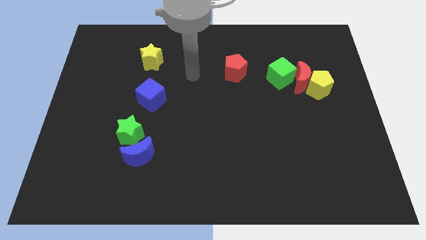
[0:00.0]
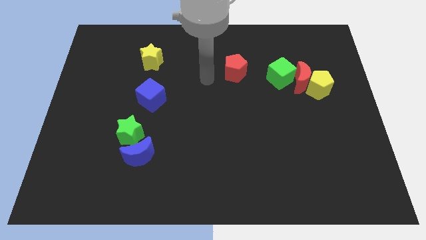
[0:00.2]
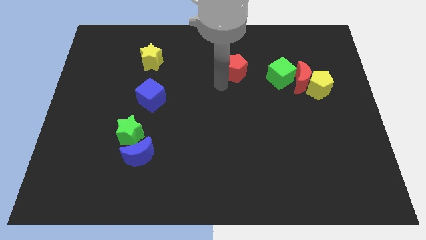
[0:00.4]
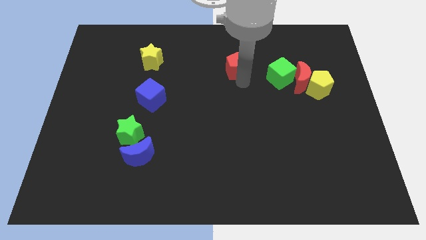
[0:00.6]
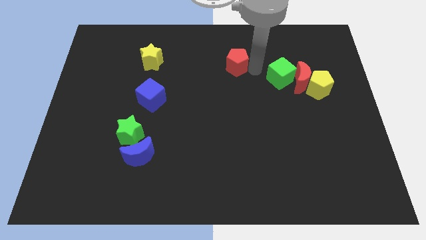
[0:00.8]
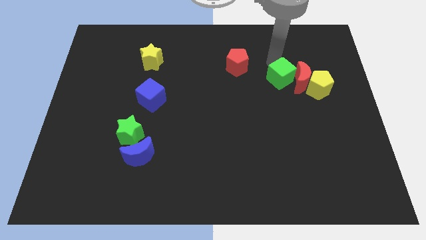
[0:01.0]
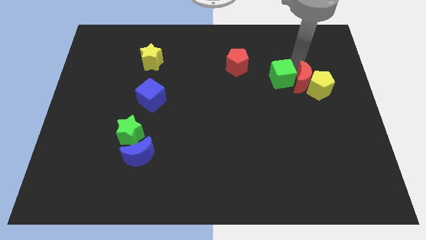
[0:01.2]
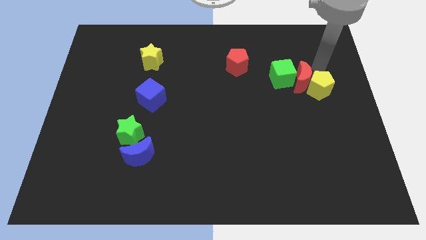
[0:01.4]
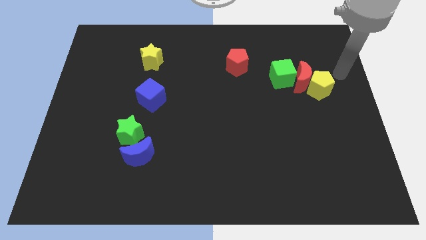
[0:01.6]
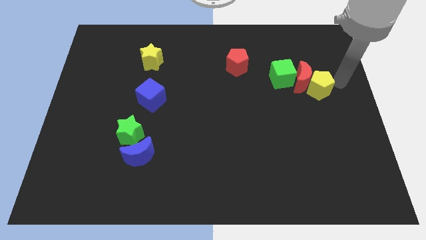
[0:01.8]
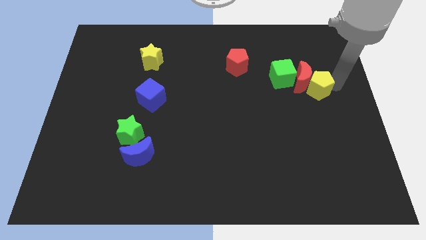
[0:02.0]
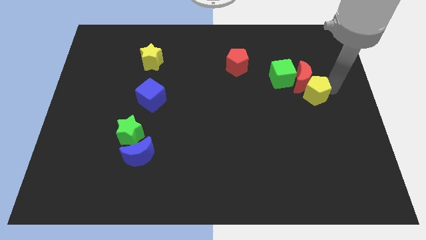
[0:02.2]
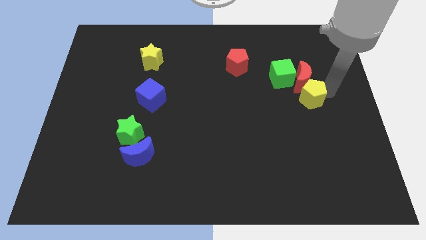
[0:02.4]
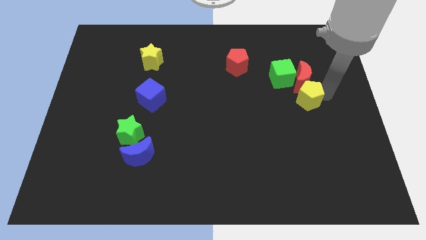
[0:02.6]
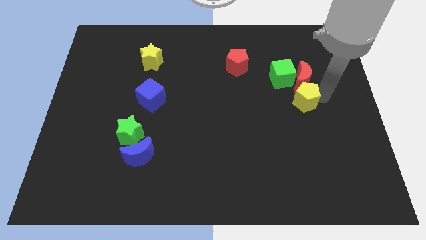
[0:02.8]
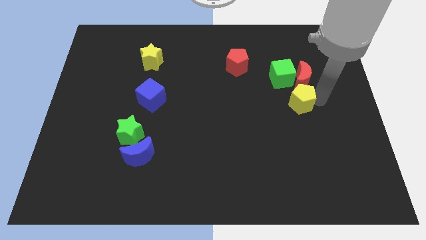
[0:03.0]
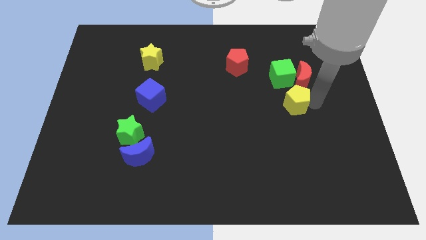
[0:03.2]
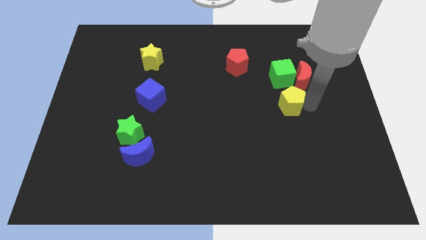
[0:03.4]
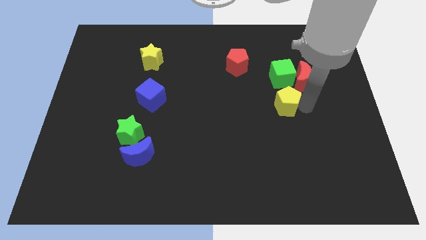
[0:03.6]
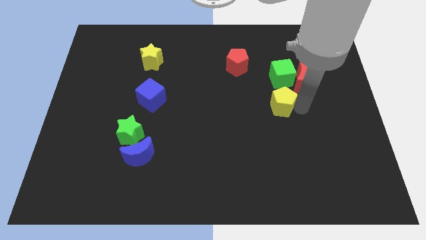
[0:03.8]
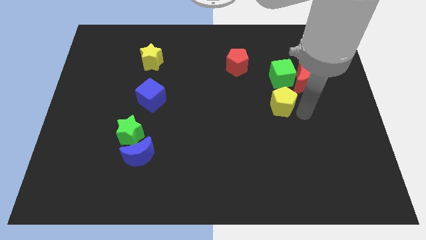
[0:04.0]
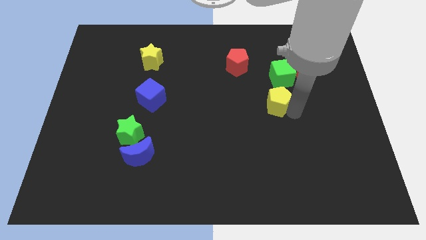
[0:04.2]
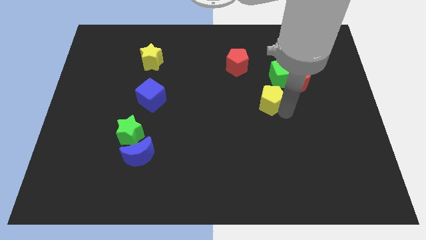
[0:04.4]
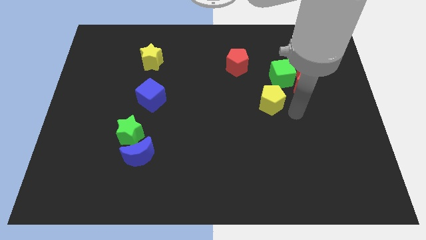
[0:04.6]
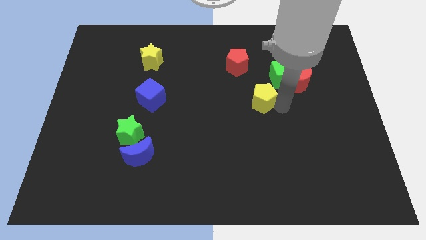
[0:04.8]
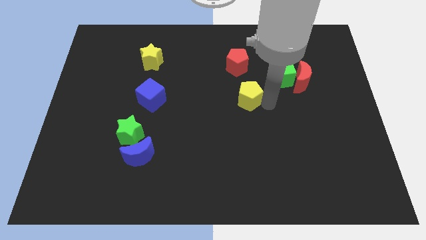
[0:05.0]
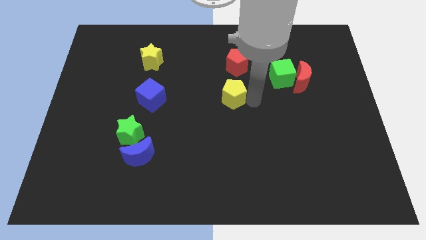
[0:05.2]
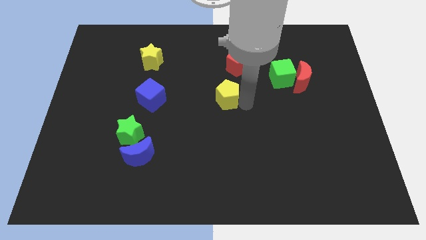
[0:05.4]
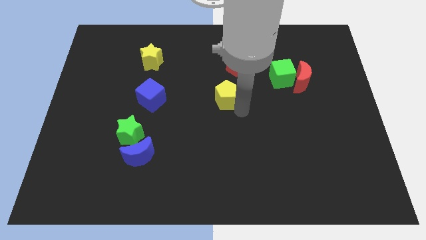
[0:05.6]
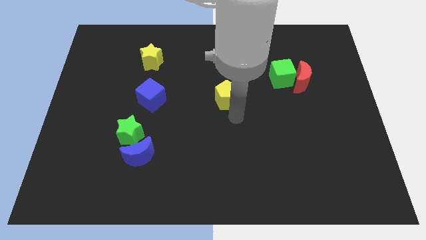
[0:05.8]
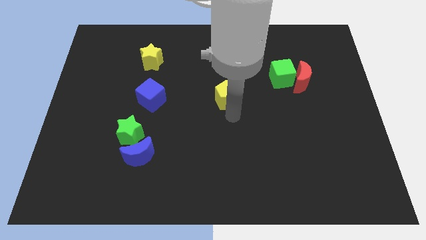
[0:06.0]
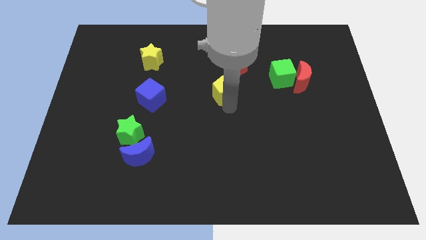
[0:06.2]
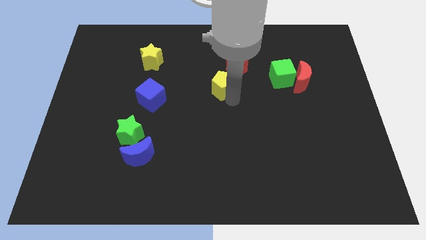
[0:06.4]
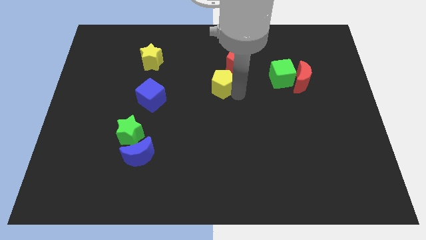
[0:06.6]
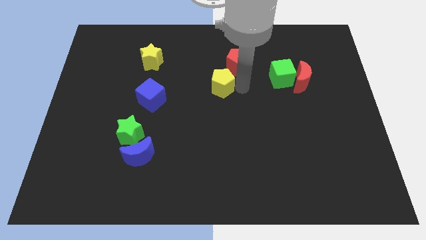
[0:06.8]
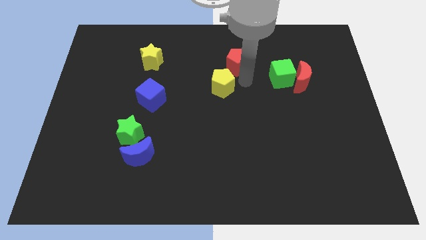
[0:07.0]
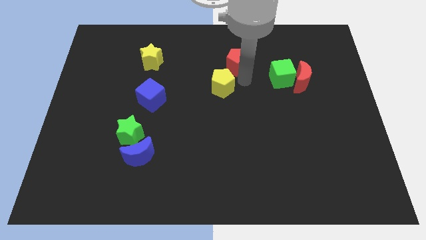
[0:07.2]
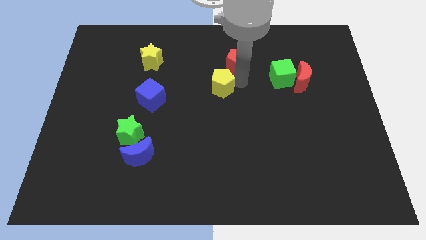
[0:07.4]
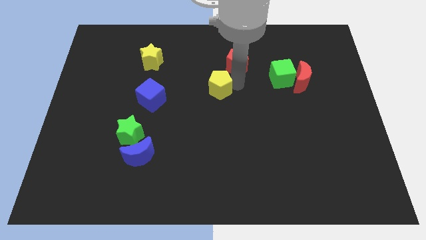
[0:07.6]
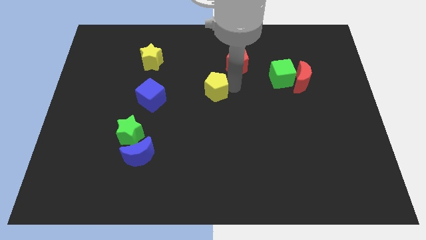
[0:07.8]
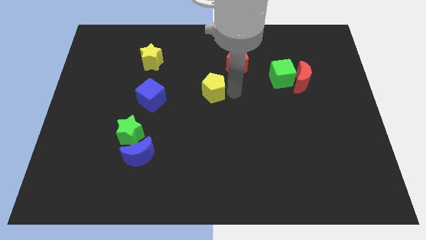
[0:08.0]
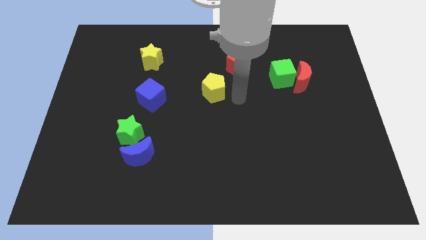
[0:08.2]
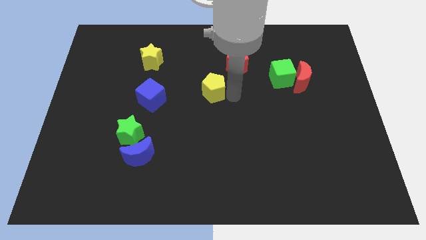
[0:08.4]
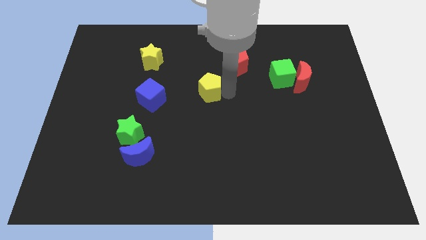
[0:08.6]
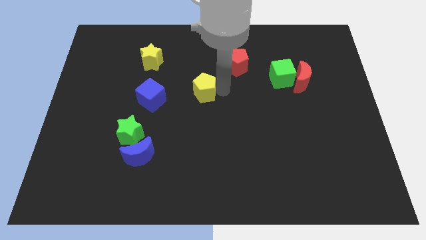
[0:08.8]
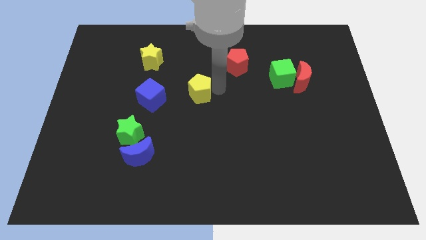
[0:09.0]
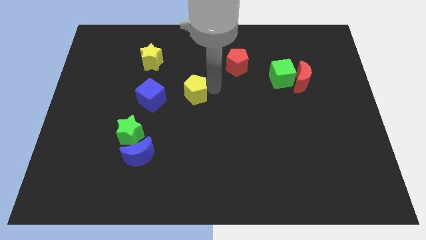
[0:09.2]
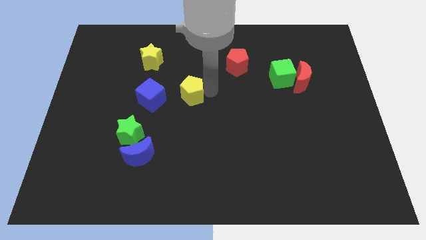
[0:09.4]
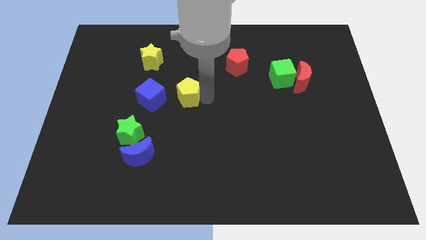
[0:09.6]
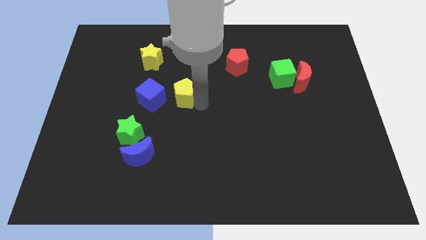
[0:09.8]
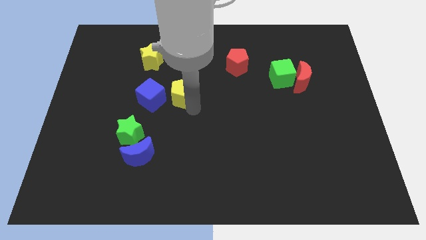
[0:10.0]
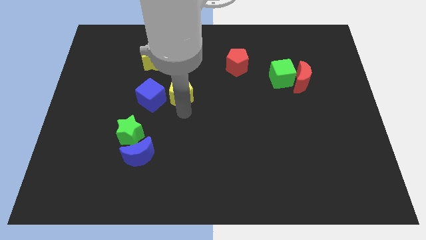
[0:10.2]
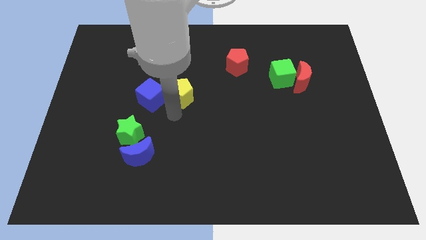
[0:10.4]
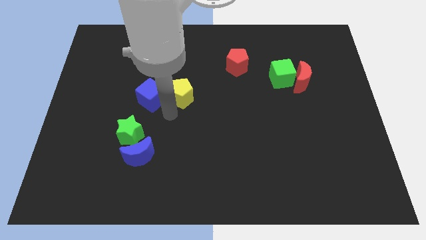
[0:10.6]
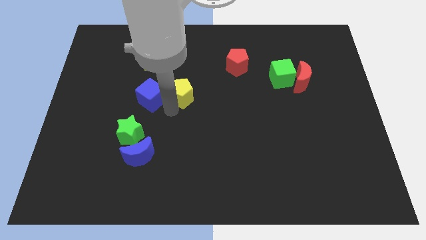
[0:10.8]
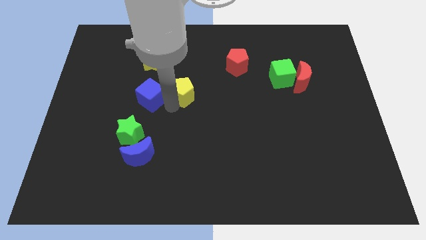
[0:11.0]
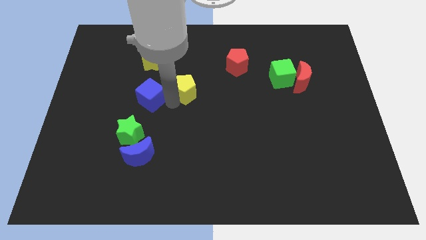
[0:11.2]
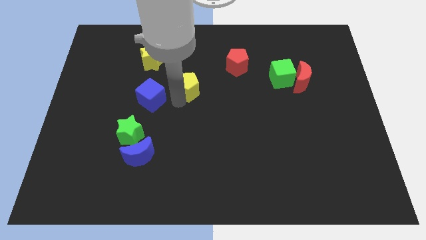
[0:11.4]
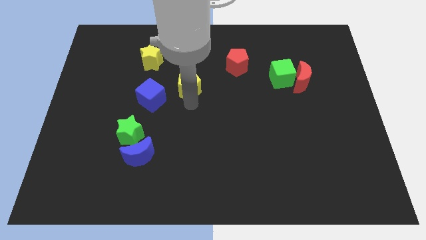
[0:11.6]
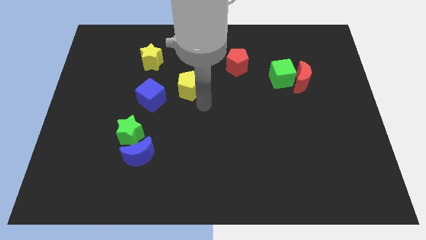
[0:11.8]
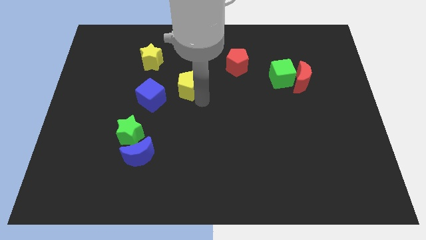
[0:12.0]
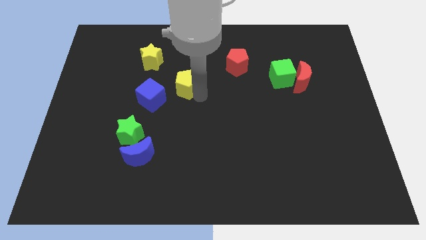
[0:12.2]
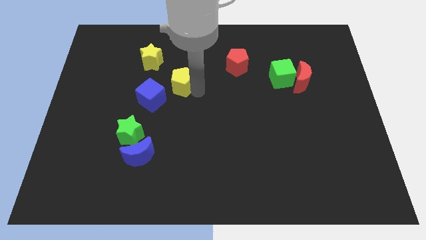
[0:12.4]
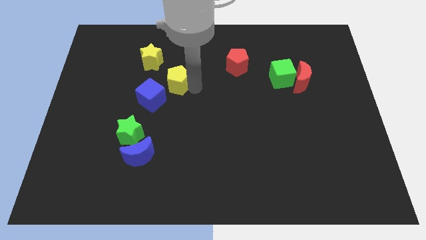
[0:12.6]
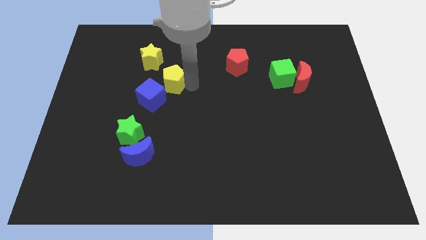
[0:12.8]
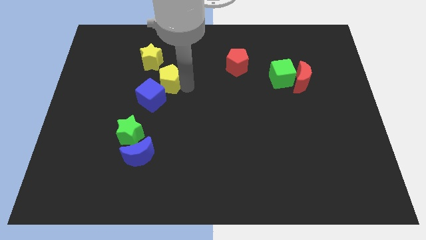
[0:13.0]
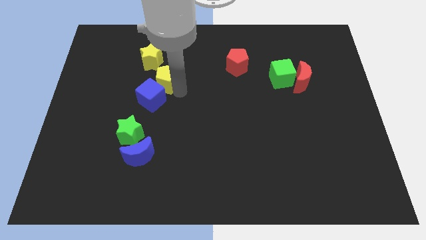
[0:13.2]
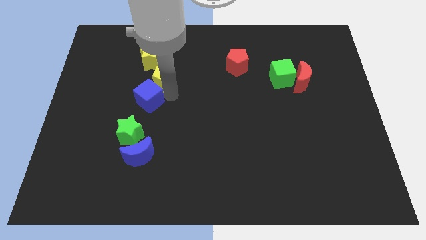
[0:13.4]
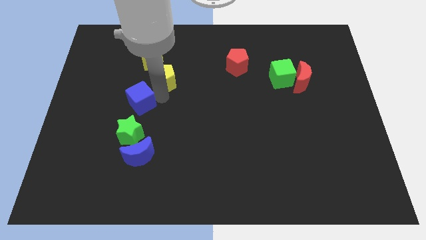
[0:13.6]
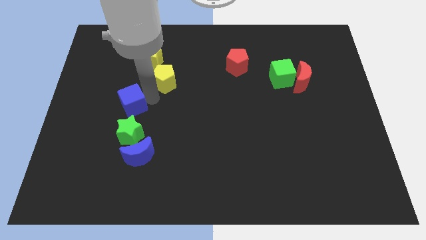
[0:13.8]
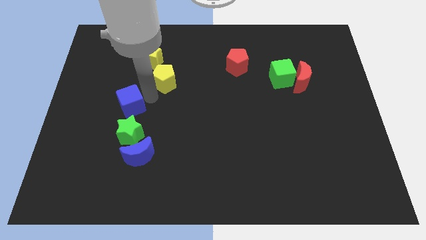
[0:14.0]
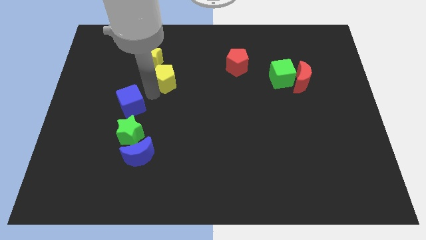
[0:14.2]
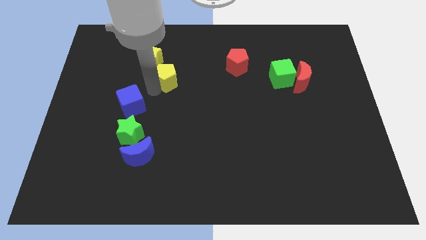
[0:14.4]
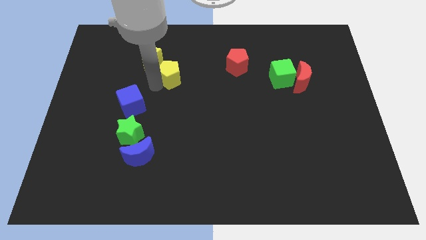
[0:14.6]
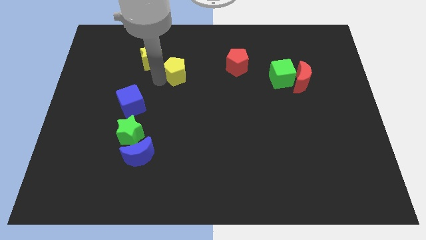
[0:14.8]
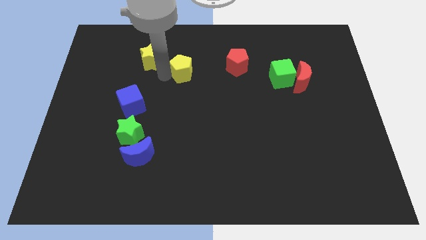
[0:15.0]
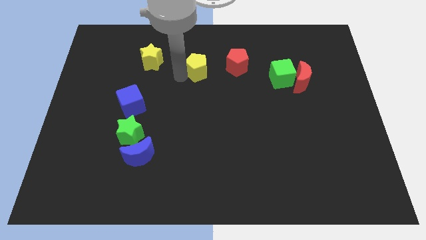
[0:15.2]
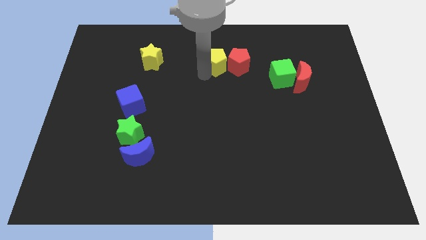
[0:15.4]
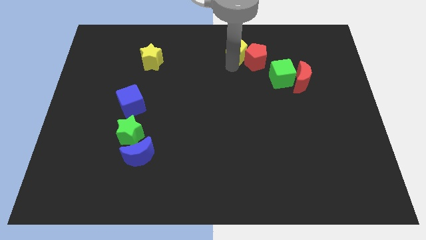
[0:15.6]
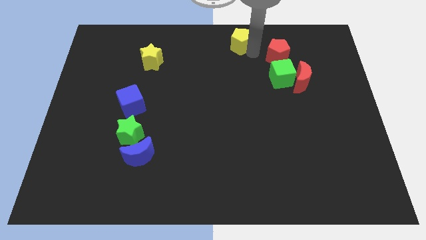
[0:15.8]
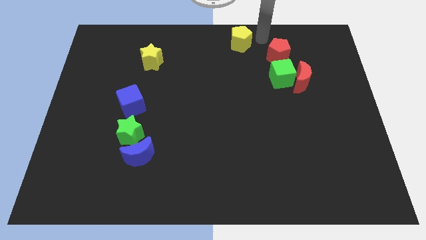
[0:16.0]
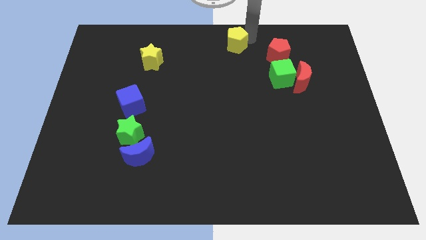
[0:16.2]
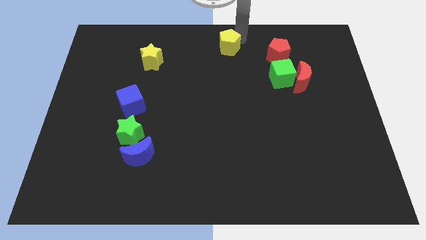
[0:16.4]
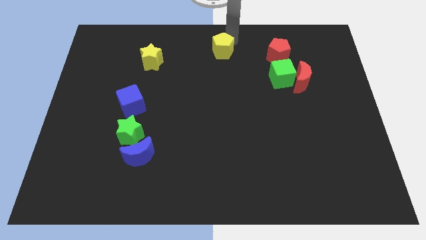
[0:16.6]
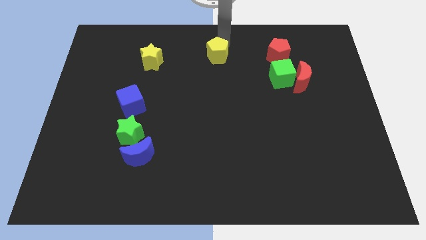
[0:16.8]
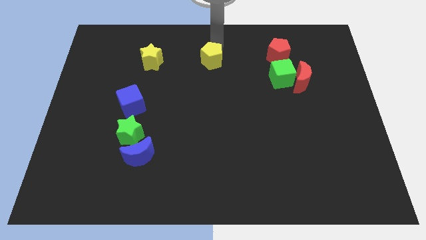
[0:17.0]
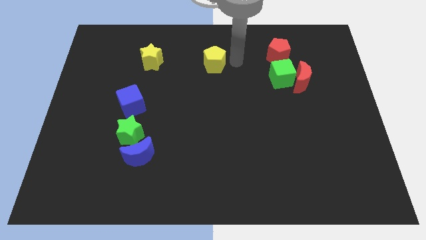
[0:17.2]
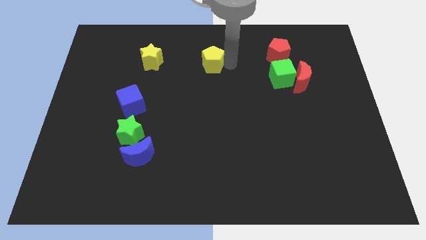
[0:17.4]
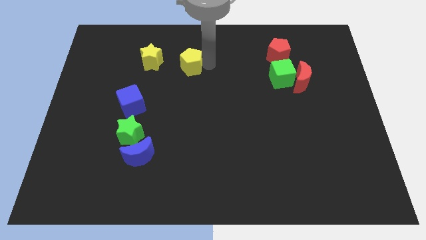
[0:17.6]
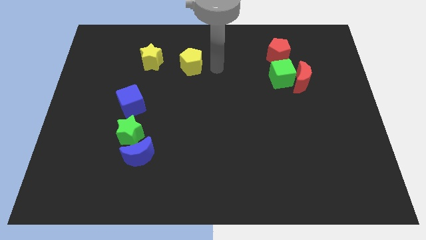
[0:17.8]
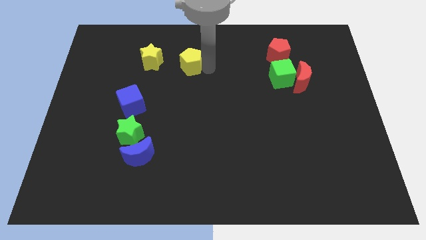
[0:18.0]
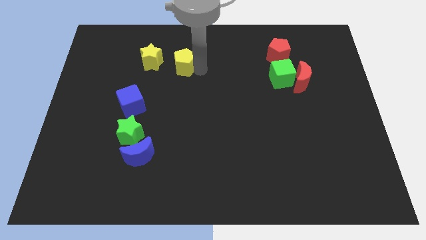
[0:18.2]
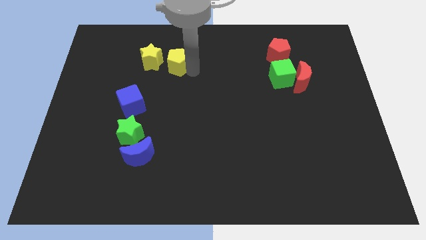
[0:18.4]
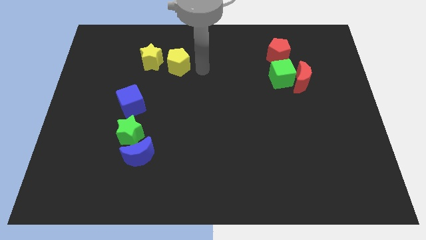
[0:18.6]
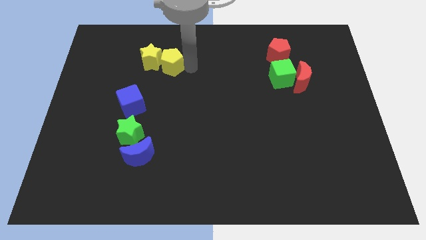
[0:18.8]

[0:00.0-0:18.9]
put the yellow pentagon towards the yellow star
